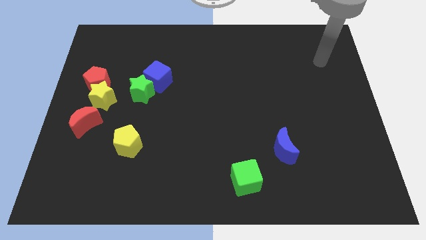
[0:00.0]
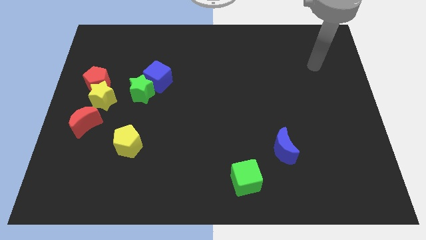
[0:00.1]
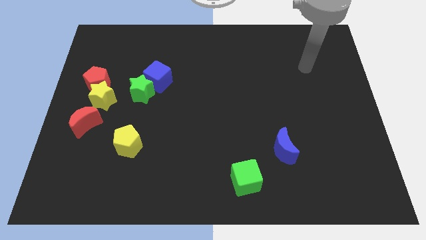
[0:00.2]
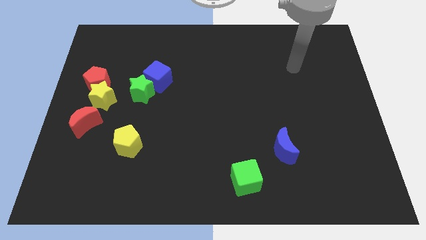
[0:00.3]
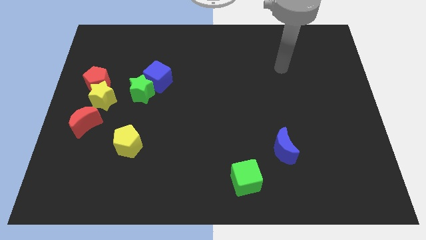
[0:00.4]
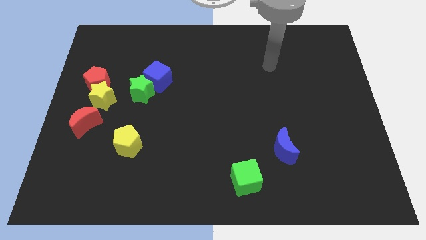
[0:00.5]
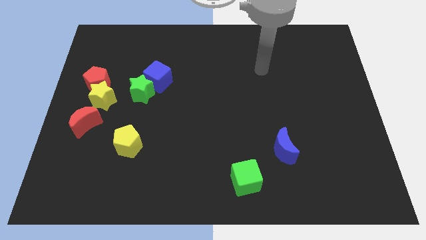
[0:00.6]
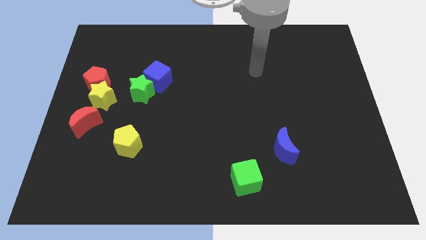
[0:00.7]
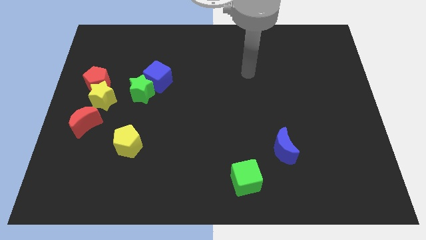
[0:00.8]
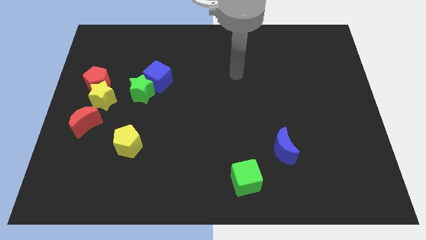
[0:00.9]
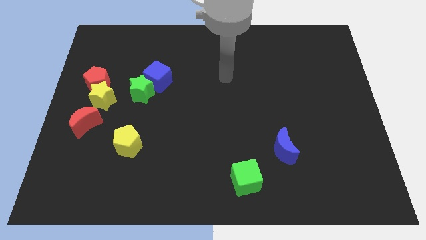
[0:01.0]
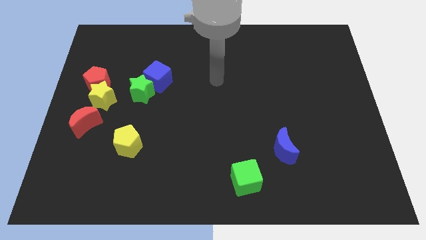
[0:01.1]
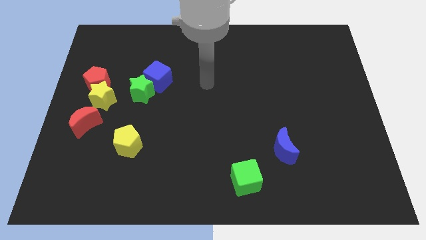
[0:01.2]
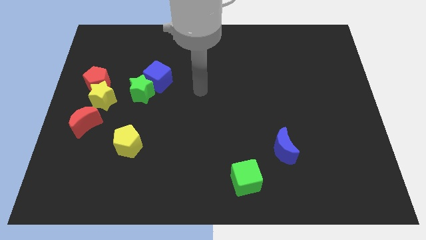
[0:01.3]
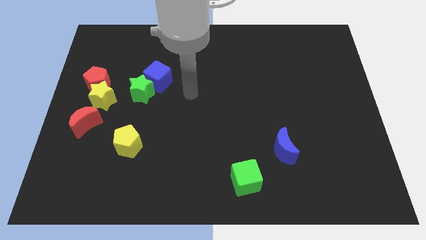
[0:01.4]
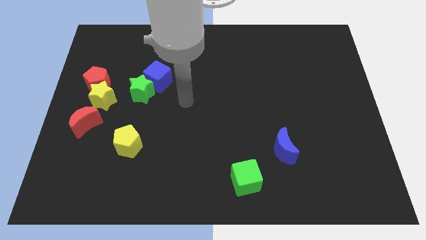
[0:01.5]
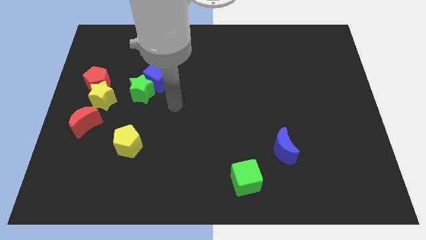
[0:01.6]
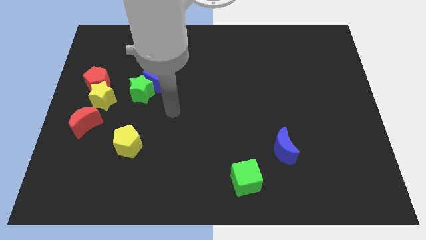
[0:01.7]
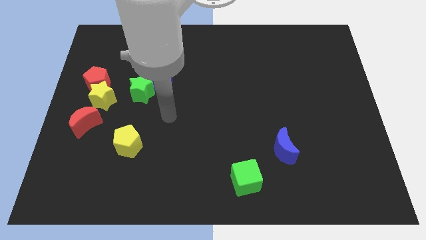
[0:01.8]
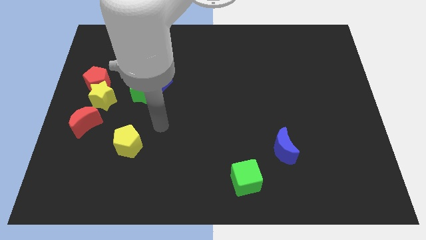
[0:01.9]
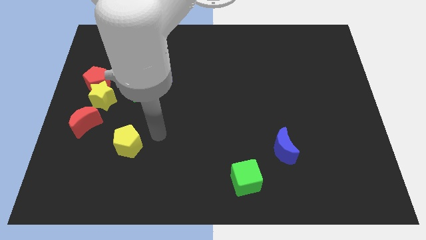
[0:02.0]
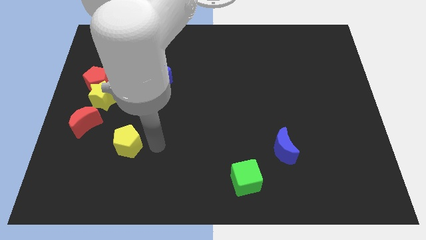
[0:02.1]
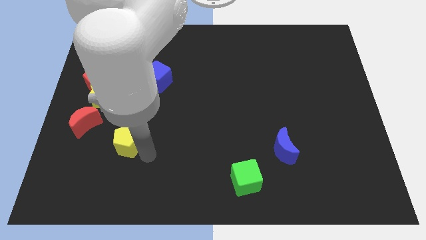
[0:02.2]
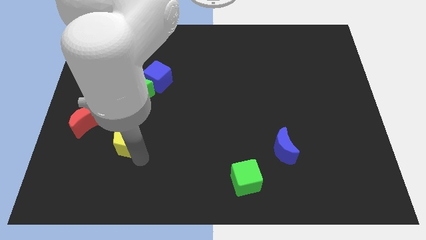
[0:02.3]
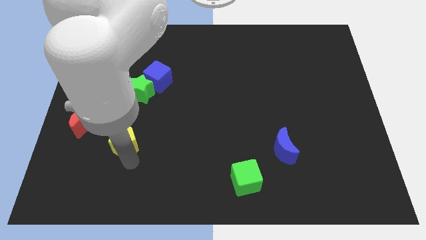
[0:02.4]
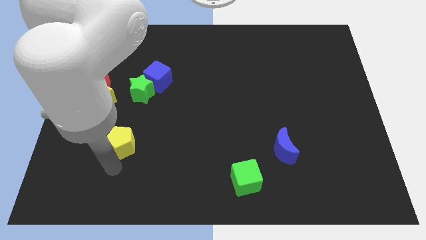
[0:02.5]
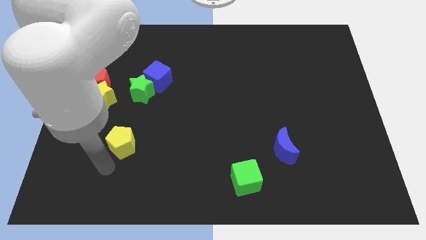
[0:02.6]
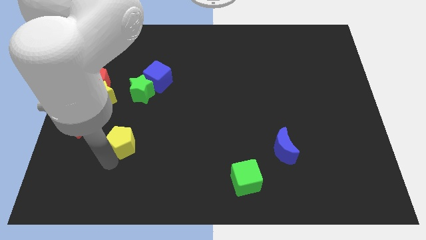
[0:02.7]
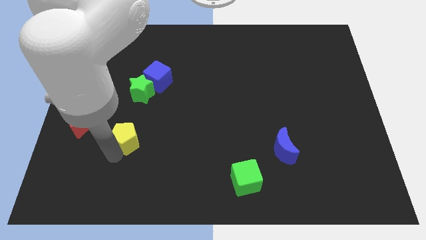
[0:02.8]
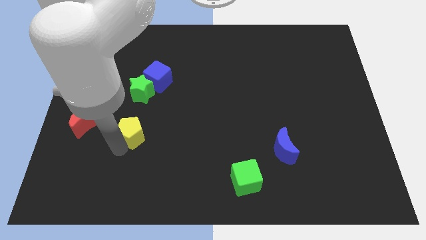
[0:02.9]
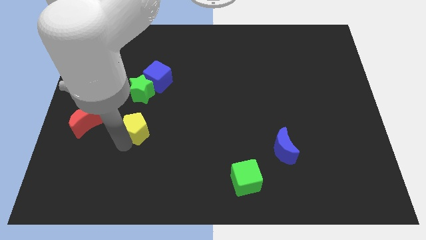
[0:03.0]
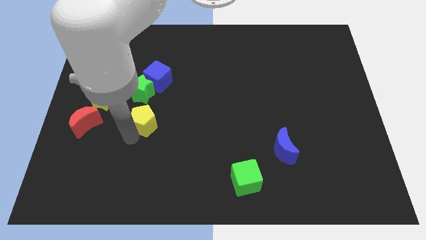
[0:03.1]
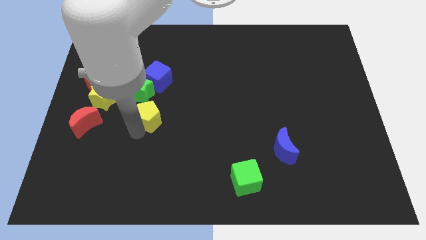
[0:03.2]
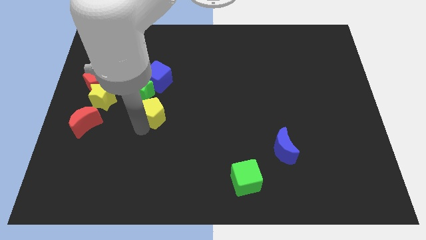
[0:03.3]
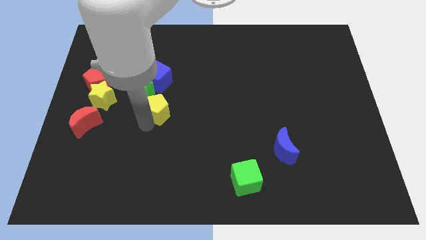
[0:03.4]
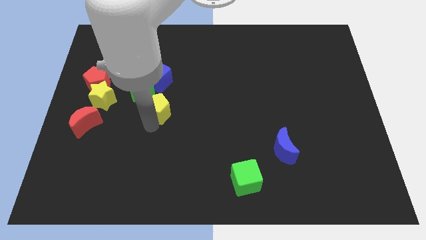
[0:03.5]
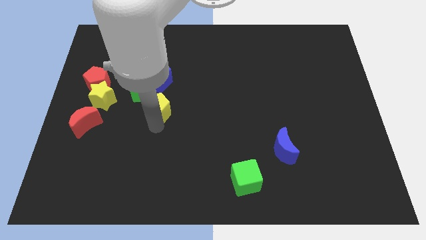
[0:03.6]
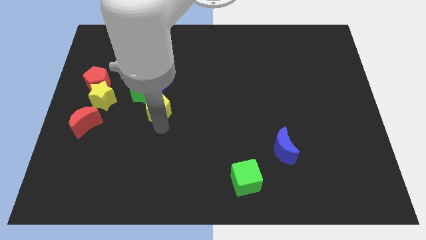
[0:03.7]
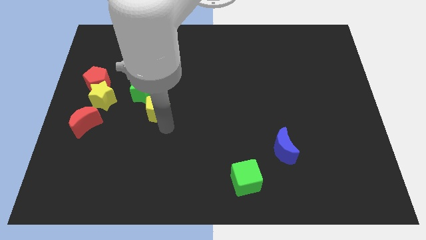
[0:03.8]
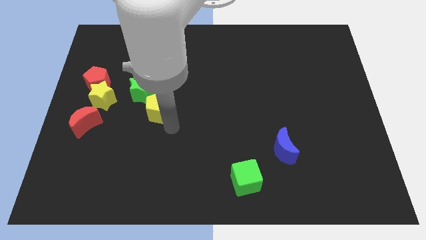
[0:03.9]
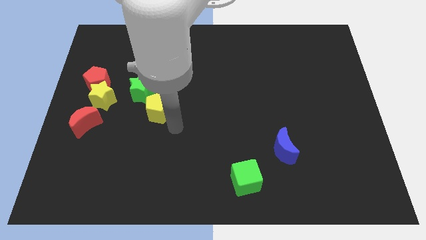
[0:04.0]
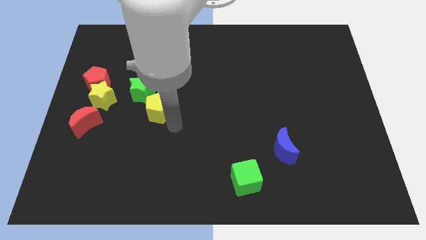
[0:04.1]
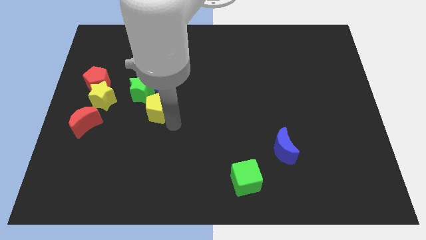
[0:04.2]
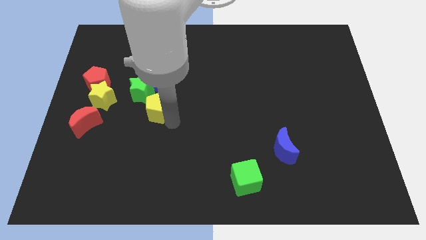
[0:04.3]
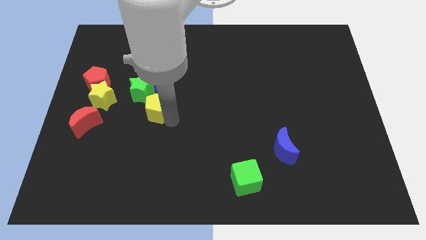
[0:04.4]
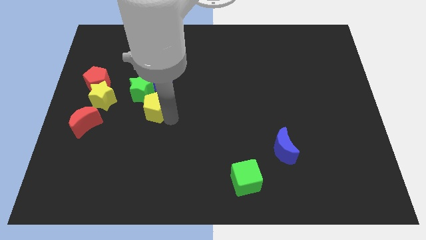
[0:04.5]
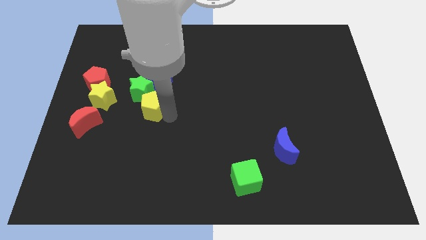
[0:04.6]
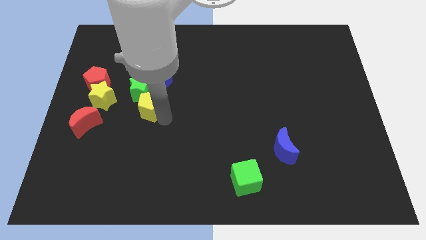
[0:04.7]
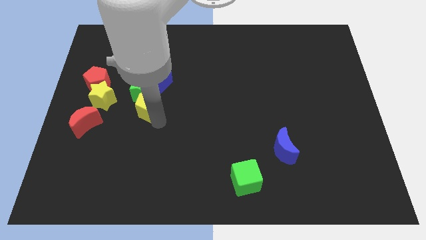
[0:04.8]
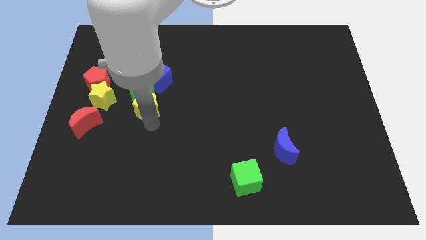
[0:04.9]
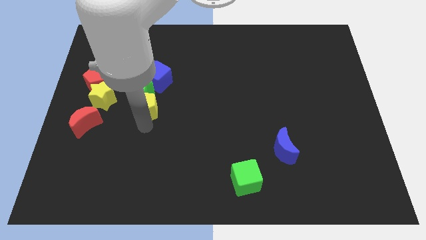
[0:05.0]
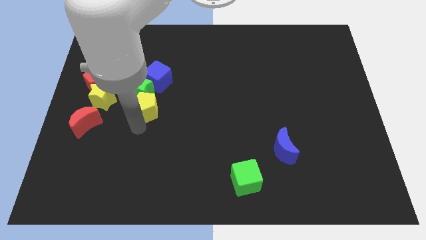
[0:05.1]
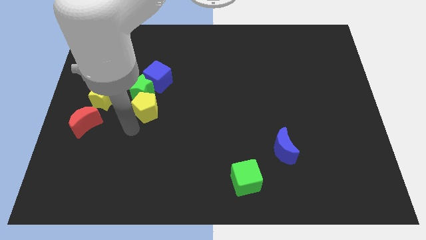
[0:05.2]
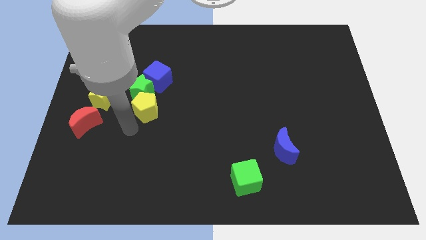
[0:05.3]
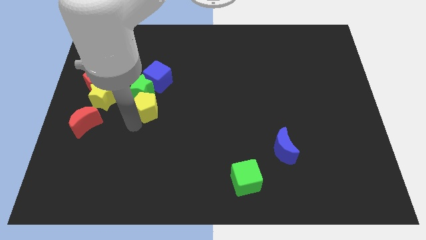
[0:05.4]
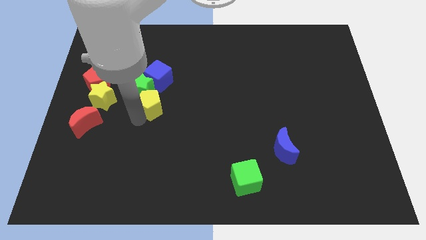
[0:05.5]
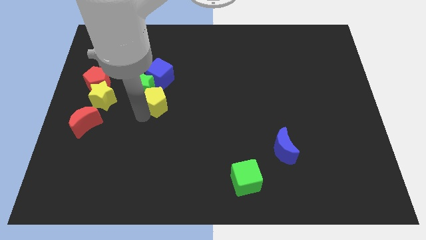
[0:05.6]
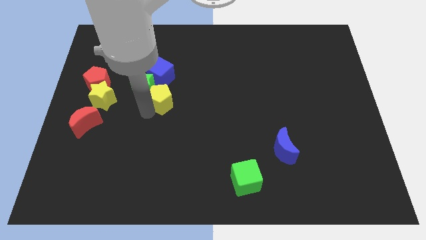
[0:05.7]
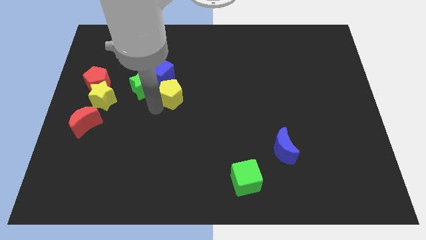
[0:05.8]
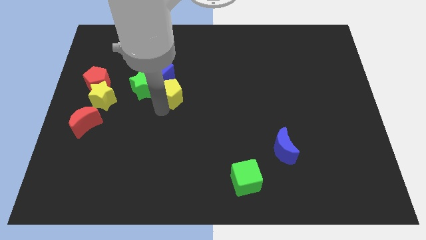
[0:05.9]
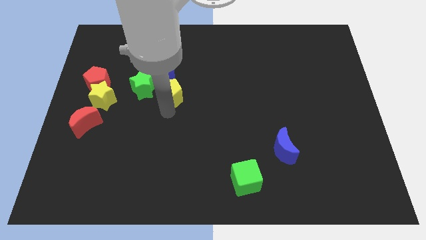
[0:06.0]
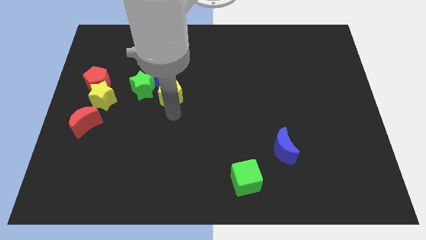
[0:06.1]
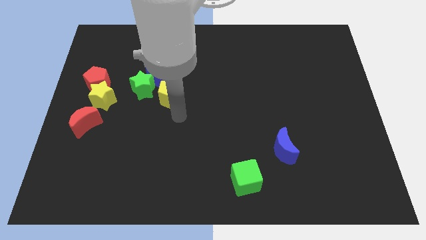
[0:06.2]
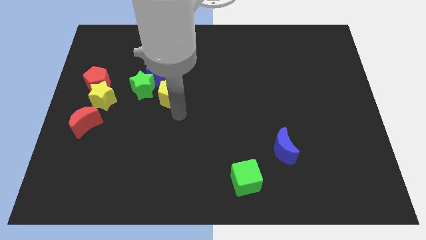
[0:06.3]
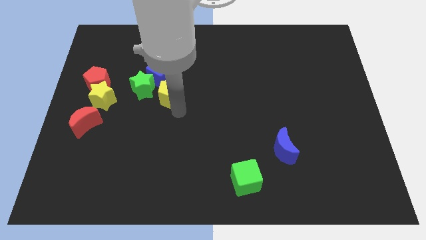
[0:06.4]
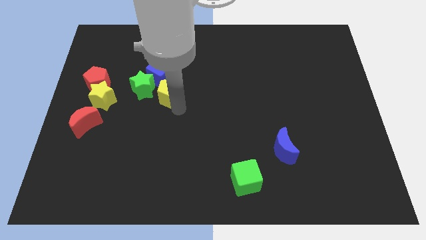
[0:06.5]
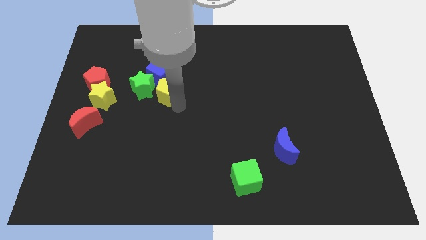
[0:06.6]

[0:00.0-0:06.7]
slide the yellow pentagon next to the blue cube

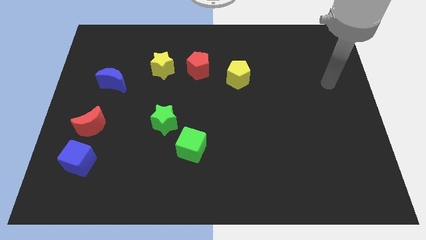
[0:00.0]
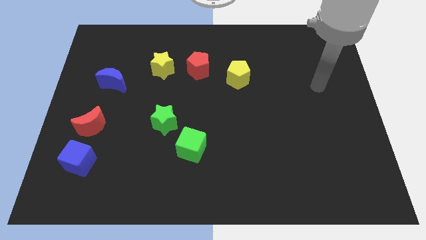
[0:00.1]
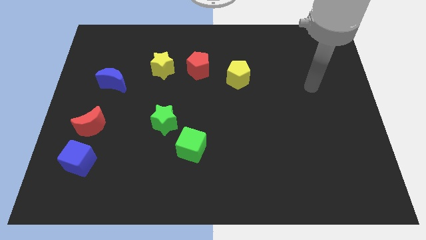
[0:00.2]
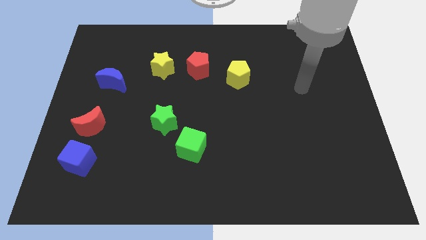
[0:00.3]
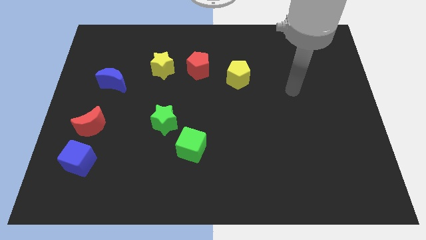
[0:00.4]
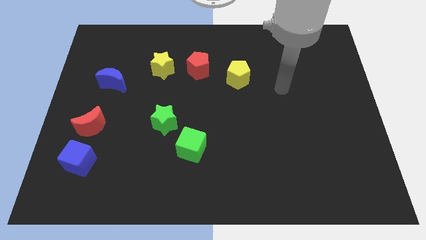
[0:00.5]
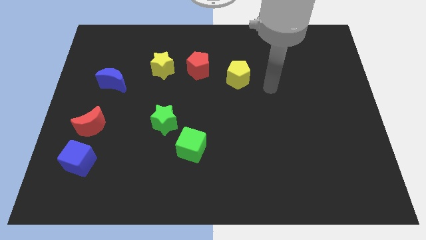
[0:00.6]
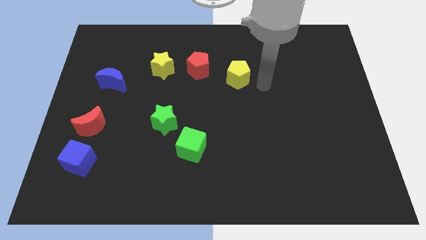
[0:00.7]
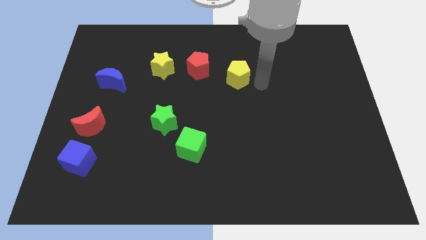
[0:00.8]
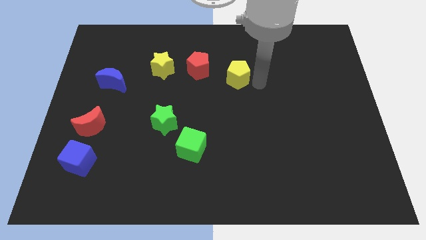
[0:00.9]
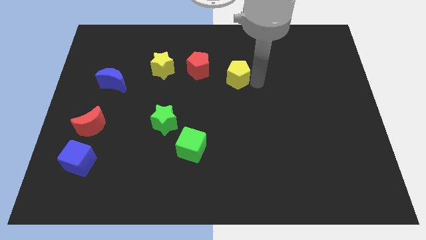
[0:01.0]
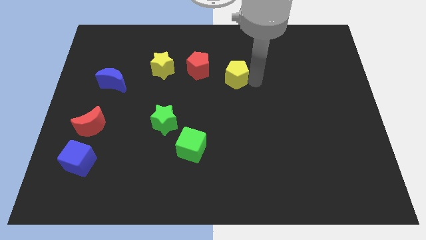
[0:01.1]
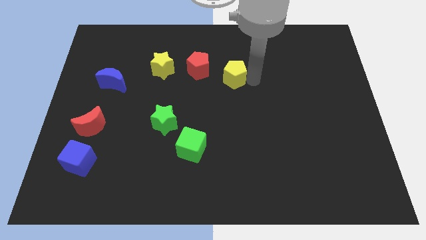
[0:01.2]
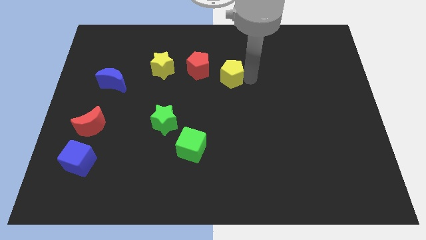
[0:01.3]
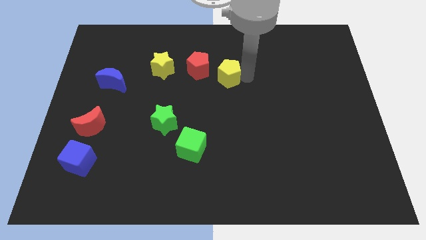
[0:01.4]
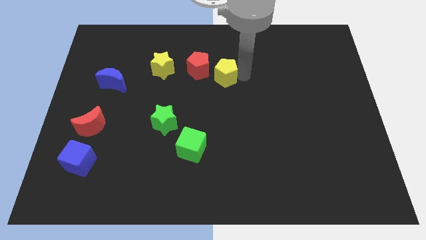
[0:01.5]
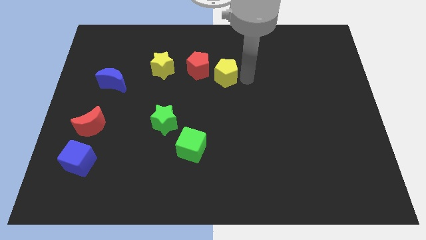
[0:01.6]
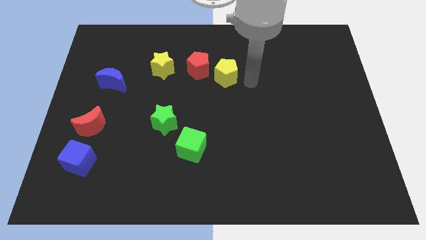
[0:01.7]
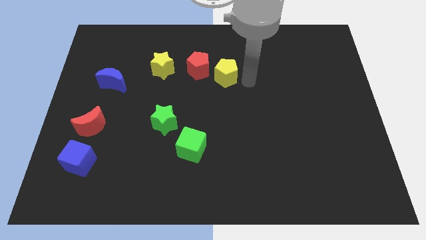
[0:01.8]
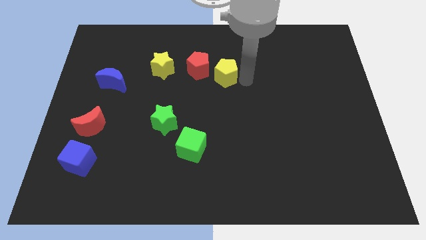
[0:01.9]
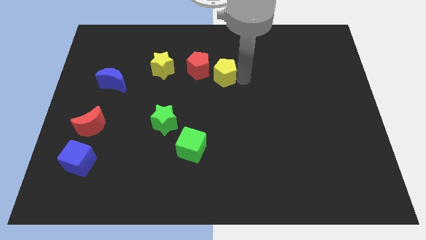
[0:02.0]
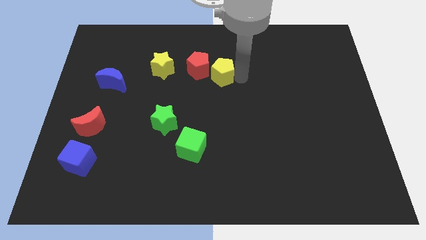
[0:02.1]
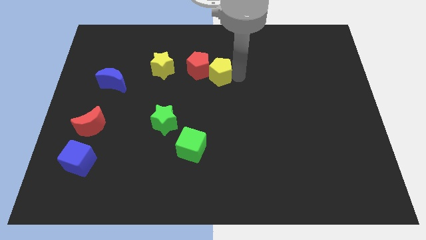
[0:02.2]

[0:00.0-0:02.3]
move the yellow pentagon next to the red pentagon
